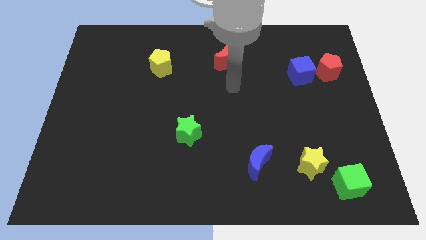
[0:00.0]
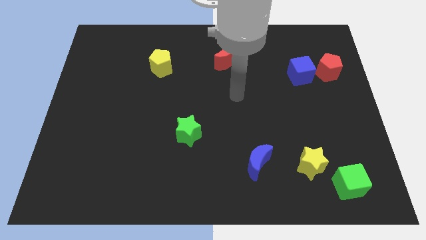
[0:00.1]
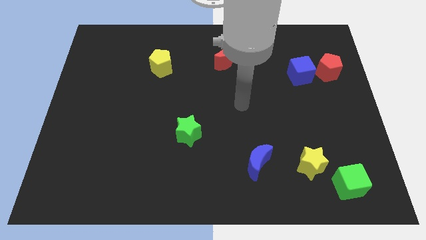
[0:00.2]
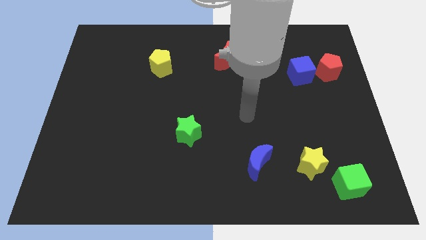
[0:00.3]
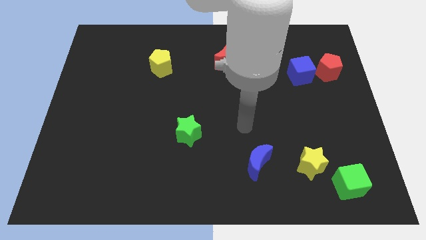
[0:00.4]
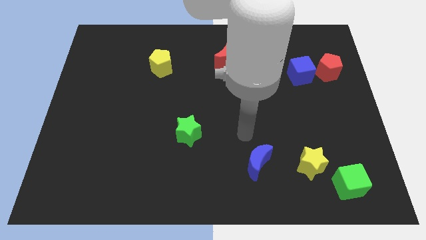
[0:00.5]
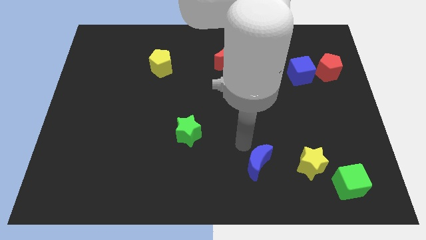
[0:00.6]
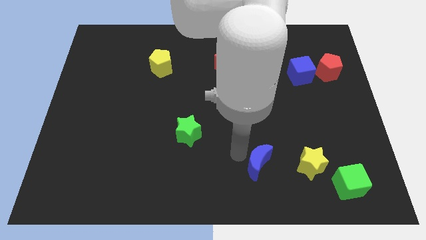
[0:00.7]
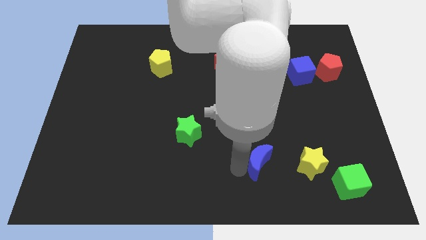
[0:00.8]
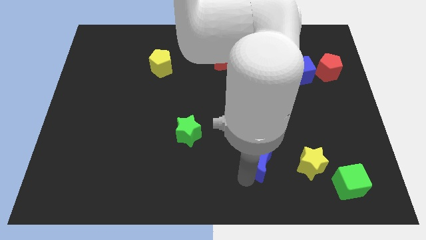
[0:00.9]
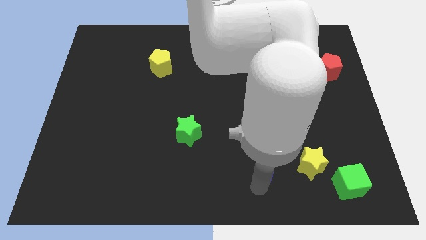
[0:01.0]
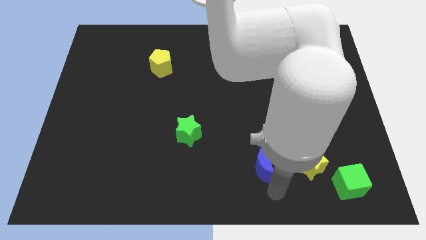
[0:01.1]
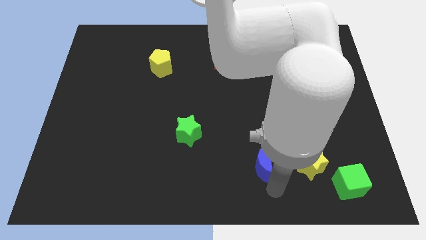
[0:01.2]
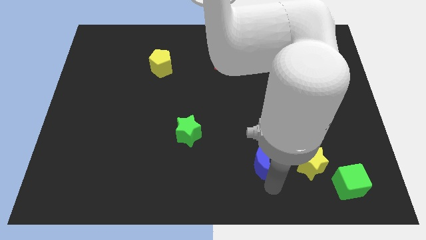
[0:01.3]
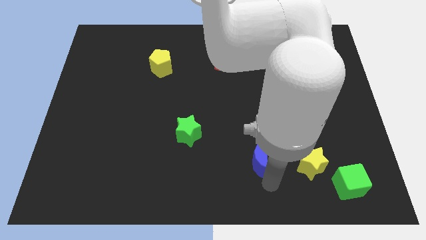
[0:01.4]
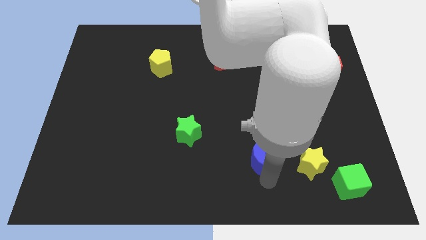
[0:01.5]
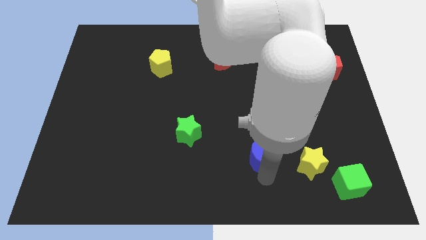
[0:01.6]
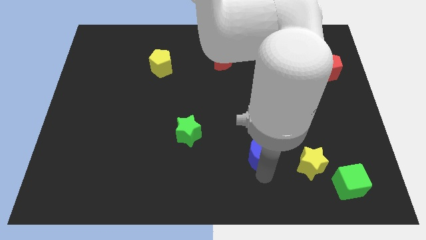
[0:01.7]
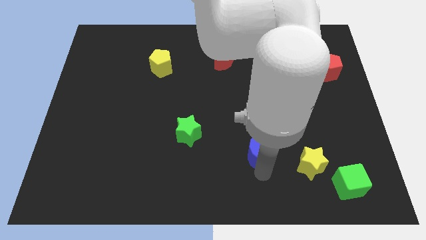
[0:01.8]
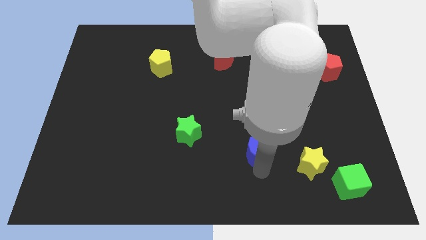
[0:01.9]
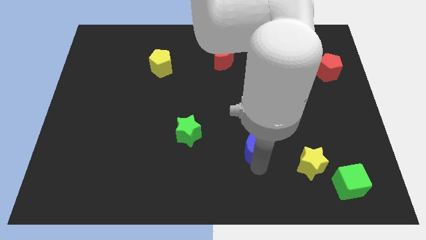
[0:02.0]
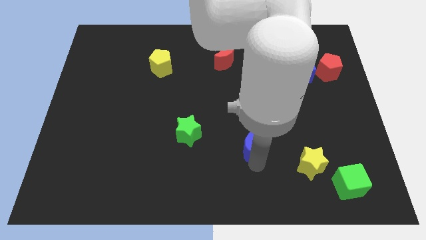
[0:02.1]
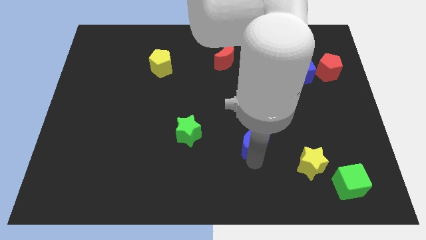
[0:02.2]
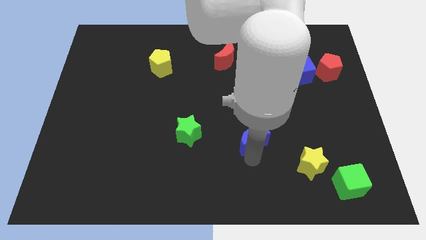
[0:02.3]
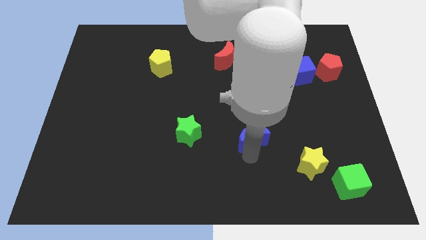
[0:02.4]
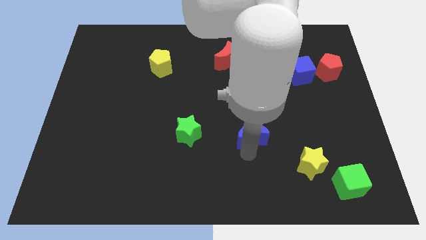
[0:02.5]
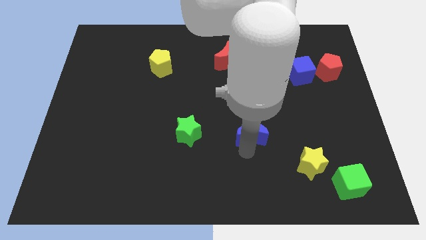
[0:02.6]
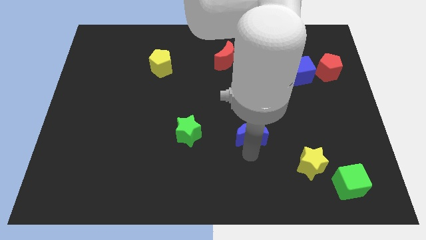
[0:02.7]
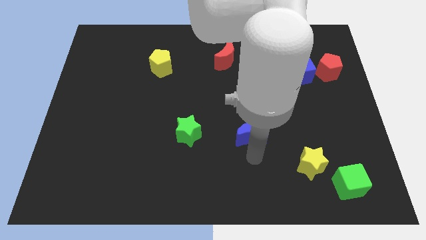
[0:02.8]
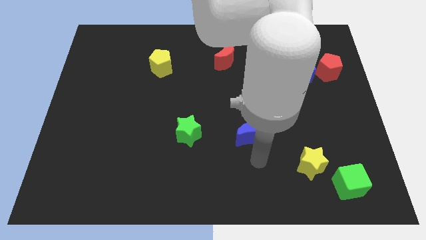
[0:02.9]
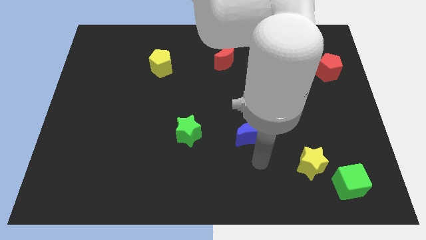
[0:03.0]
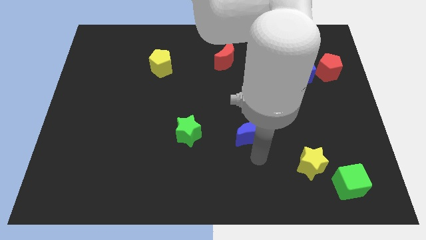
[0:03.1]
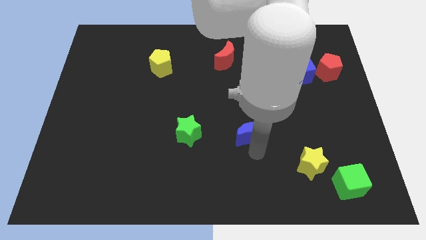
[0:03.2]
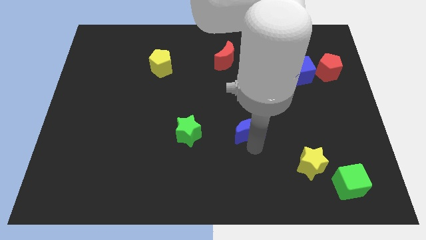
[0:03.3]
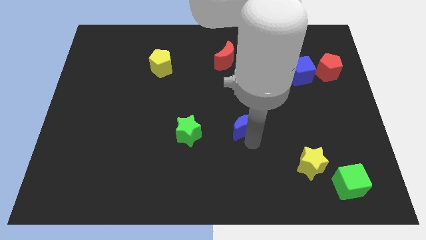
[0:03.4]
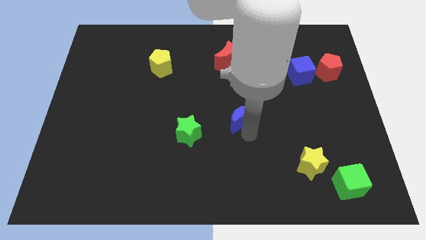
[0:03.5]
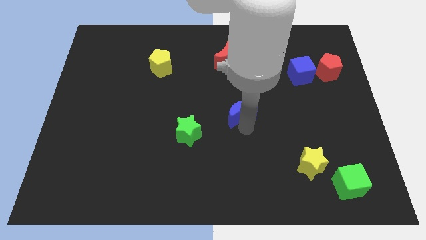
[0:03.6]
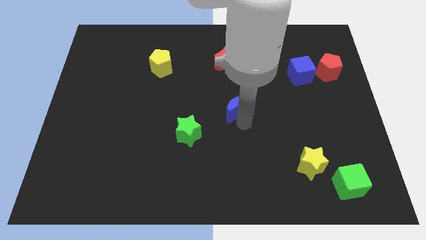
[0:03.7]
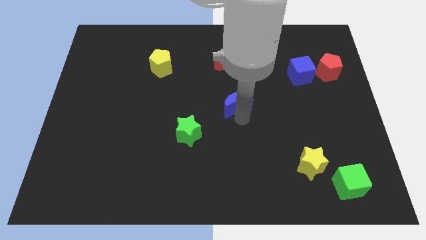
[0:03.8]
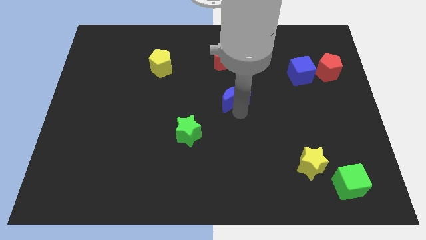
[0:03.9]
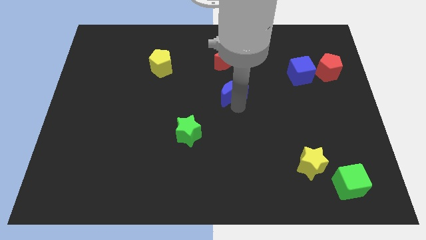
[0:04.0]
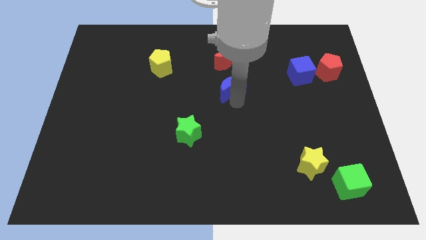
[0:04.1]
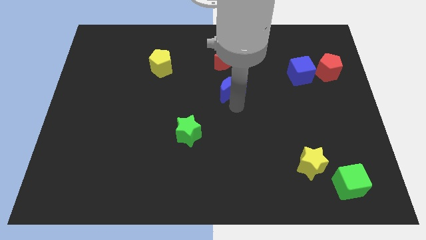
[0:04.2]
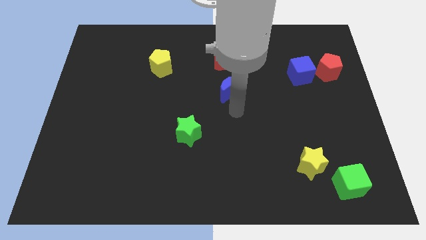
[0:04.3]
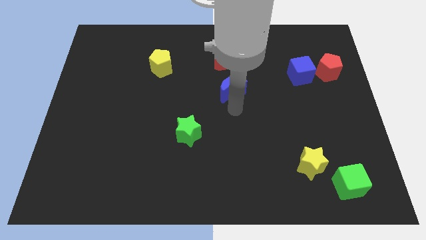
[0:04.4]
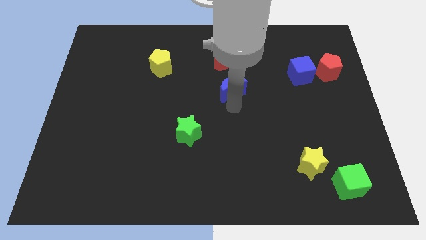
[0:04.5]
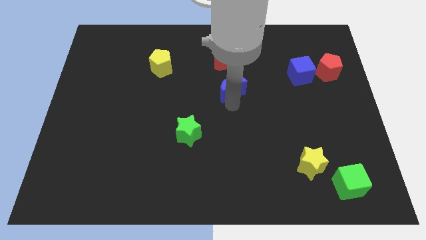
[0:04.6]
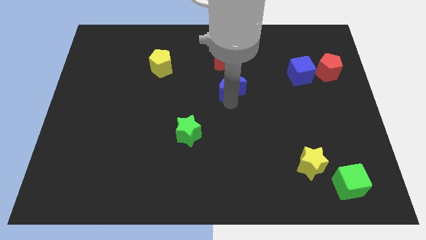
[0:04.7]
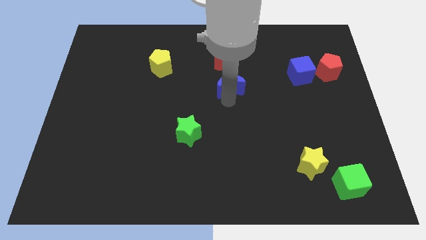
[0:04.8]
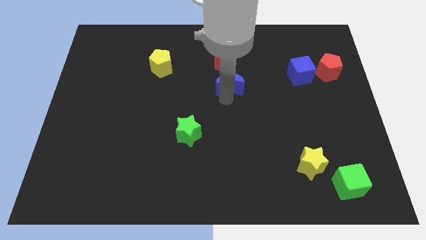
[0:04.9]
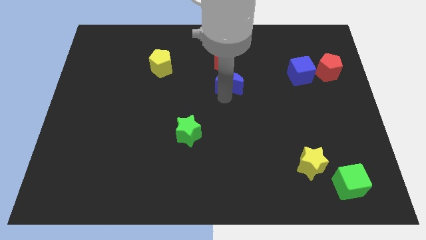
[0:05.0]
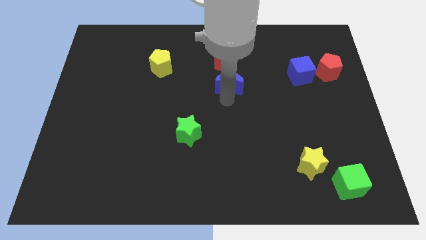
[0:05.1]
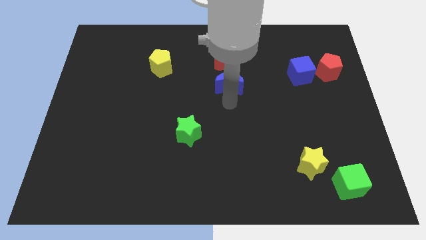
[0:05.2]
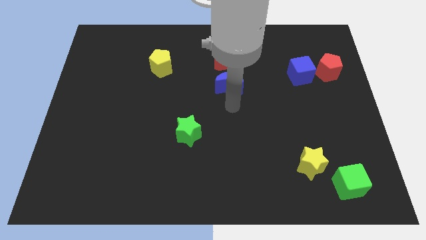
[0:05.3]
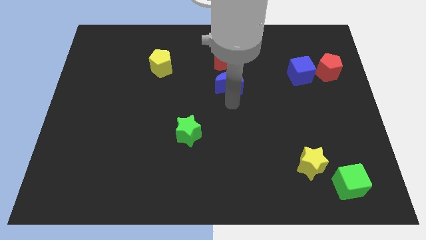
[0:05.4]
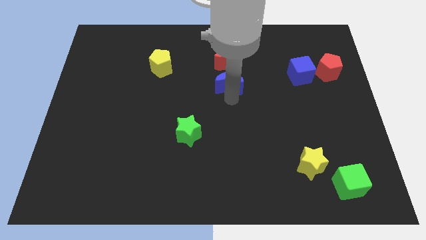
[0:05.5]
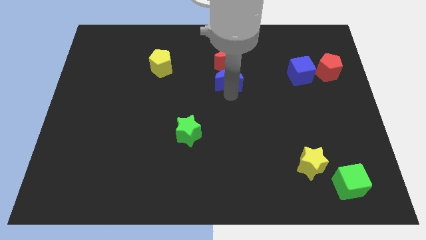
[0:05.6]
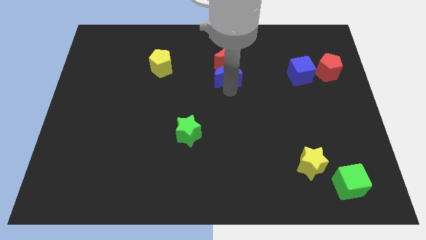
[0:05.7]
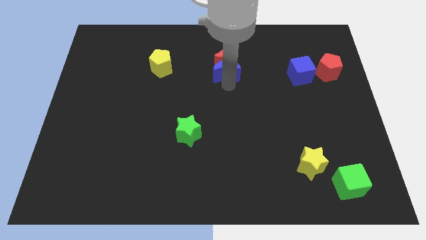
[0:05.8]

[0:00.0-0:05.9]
put the blue moon towards the red moon

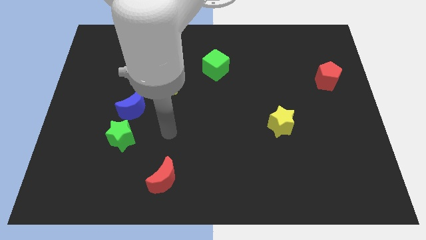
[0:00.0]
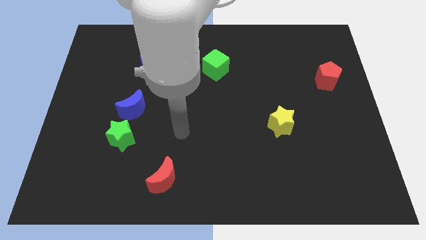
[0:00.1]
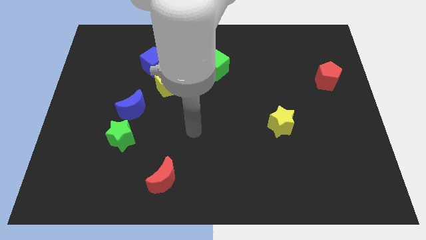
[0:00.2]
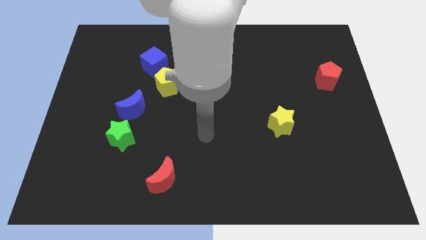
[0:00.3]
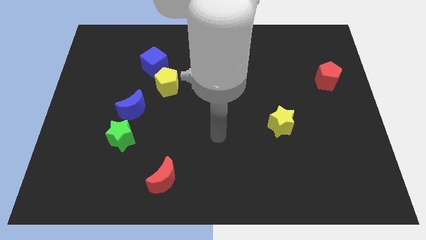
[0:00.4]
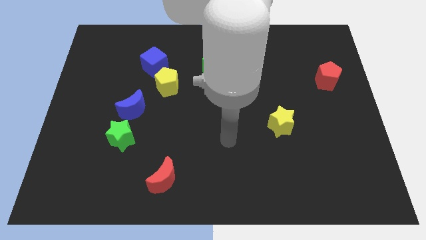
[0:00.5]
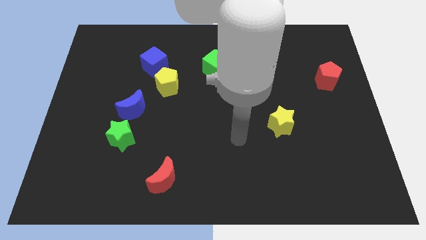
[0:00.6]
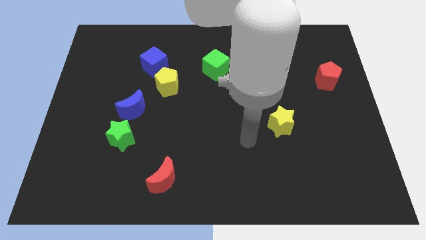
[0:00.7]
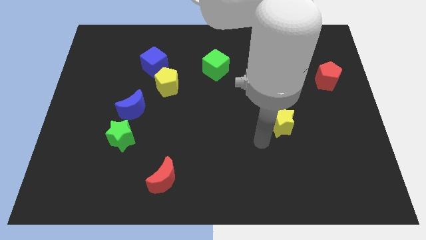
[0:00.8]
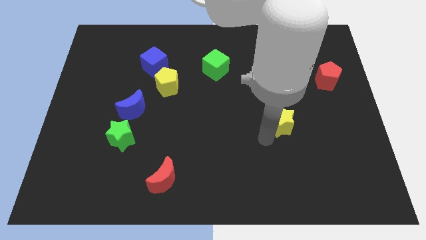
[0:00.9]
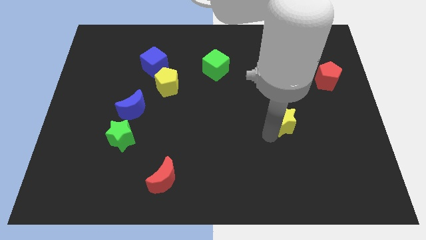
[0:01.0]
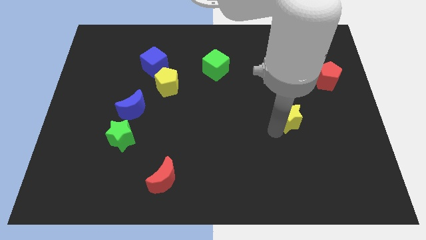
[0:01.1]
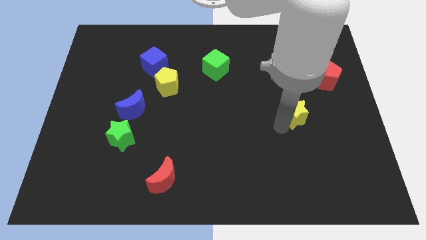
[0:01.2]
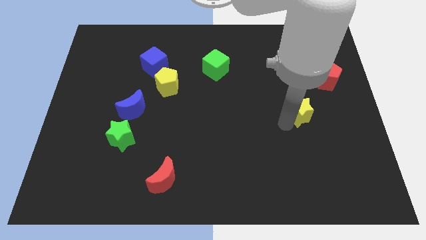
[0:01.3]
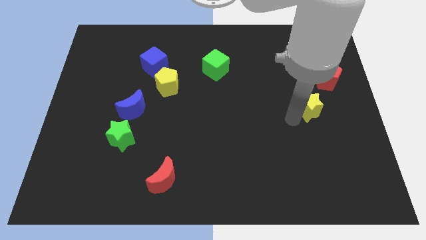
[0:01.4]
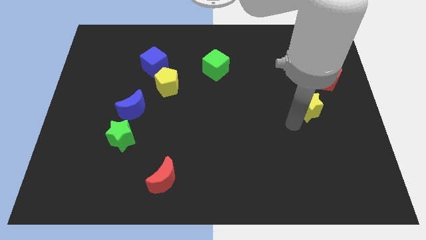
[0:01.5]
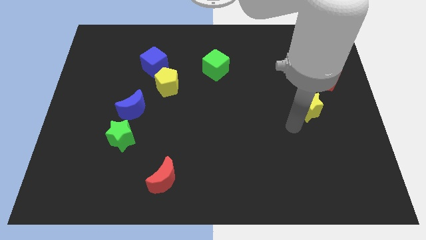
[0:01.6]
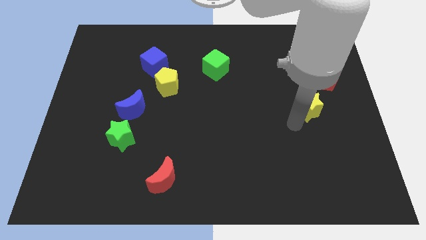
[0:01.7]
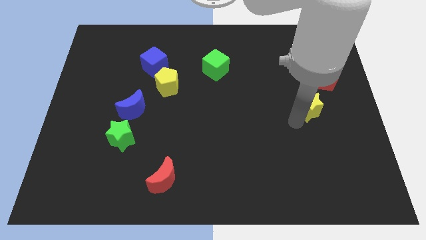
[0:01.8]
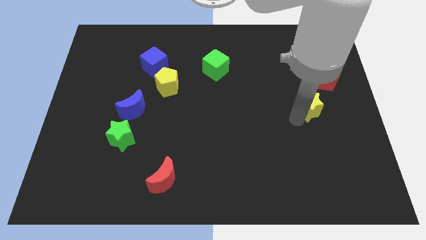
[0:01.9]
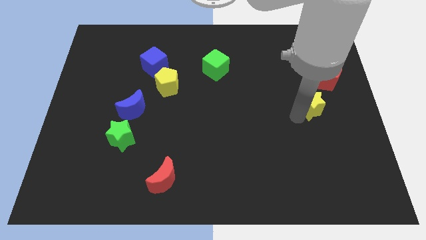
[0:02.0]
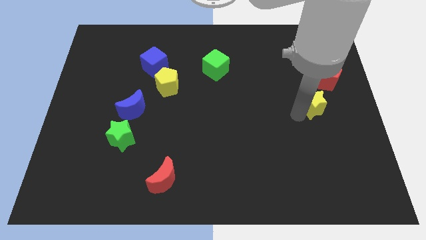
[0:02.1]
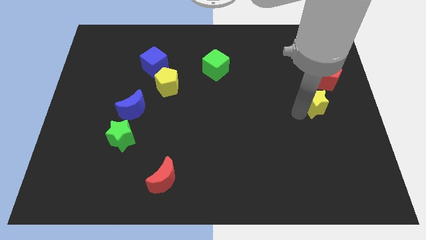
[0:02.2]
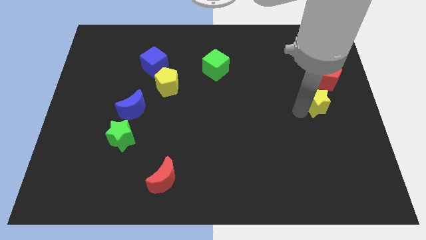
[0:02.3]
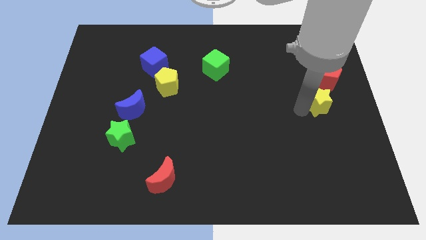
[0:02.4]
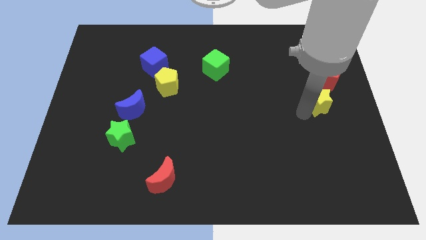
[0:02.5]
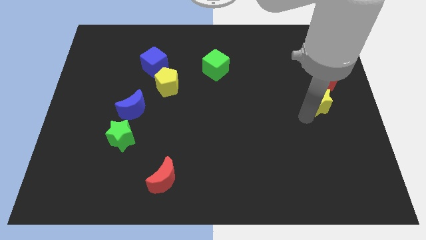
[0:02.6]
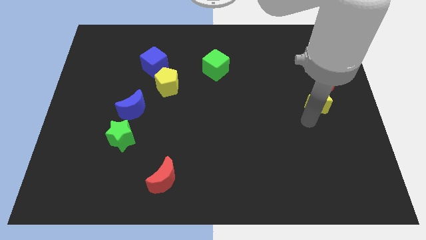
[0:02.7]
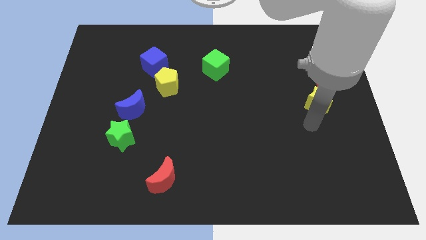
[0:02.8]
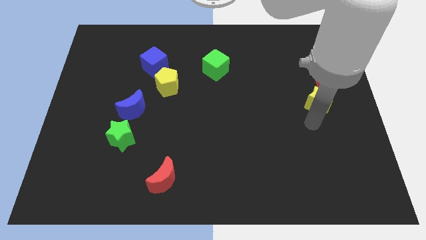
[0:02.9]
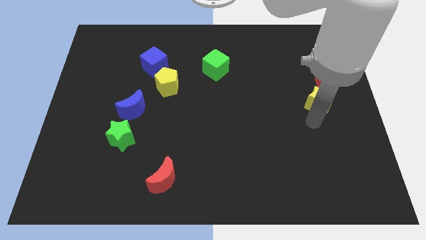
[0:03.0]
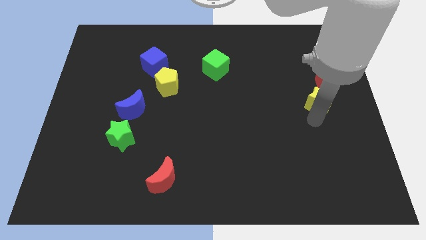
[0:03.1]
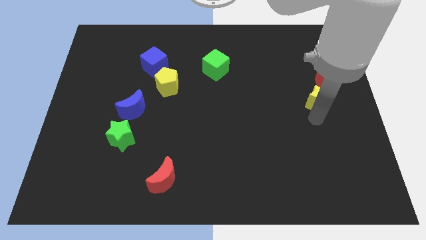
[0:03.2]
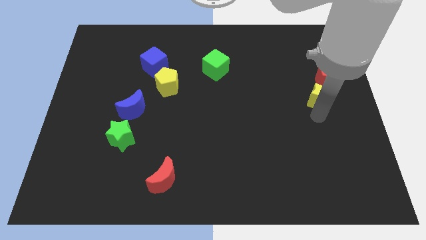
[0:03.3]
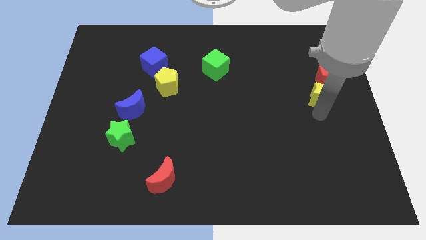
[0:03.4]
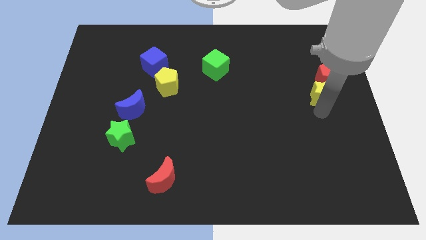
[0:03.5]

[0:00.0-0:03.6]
slide the yellow star close to the red pentagon
